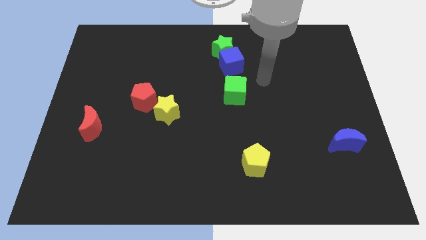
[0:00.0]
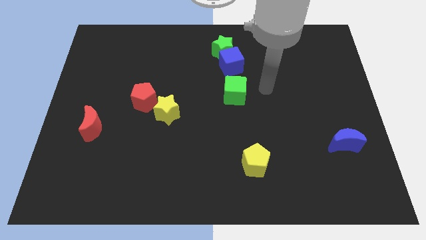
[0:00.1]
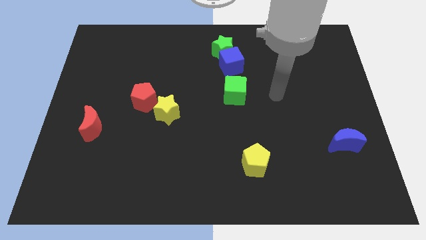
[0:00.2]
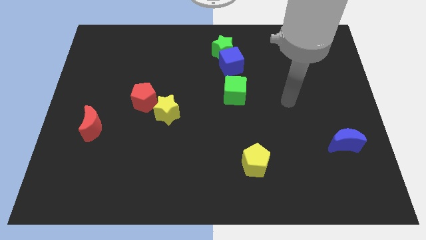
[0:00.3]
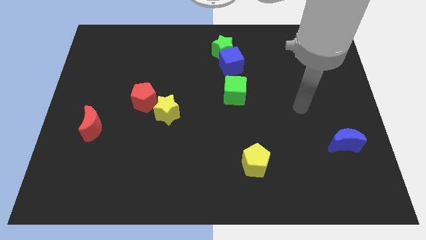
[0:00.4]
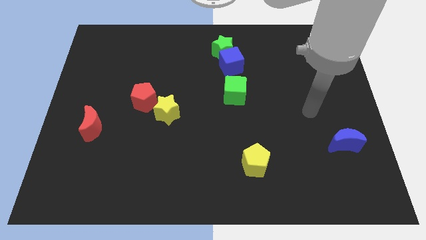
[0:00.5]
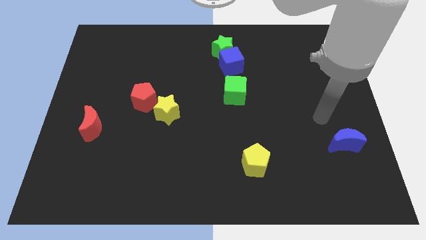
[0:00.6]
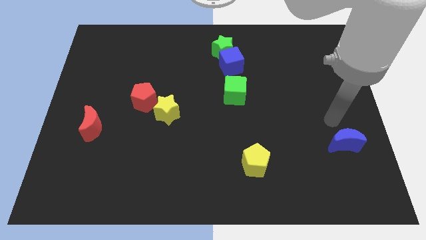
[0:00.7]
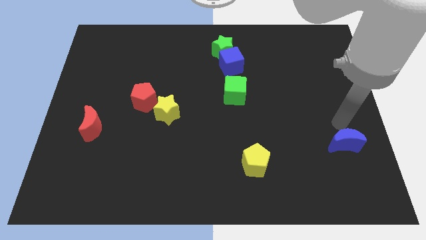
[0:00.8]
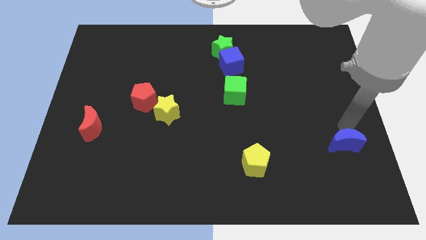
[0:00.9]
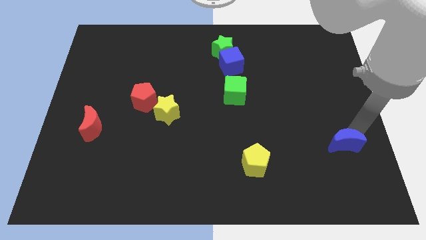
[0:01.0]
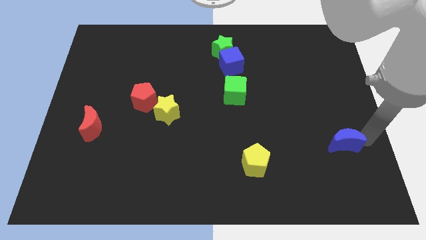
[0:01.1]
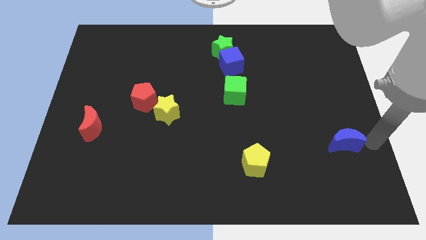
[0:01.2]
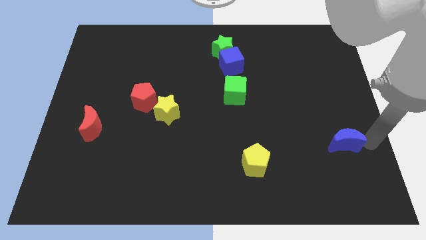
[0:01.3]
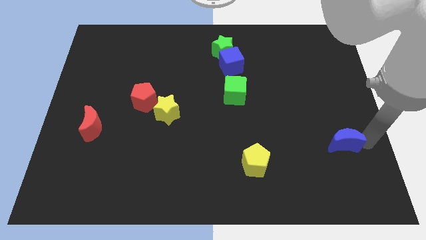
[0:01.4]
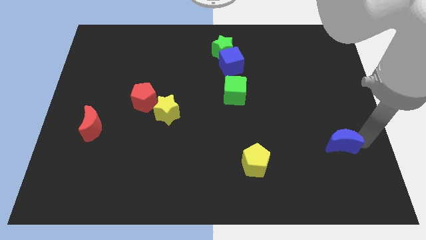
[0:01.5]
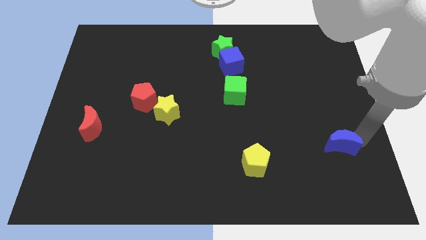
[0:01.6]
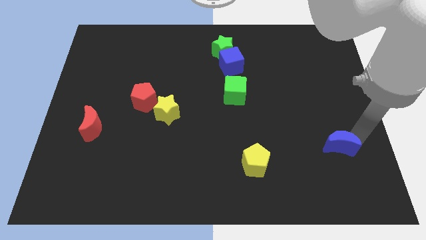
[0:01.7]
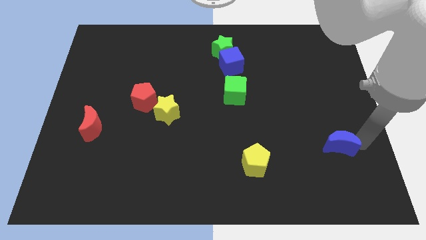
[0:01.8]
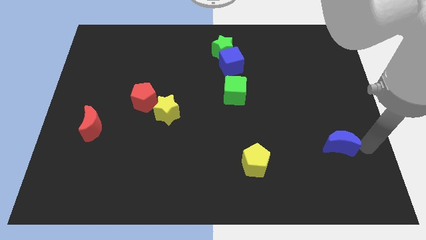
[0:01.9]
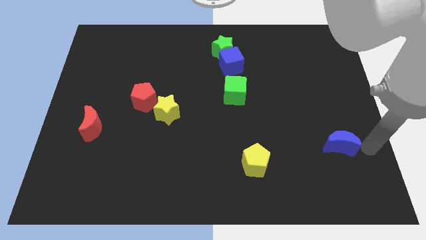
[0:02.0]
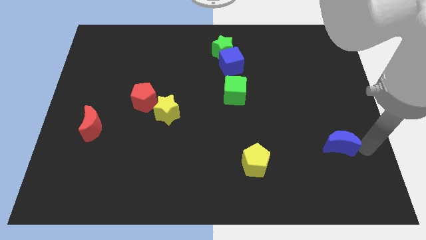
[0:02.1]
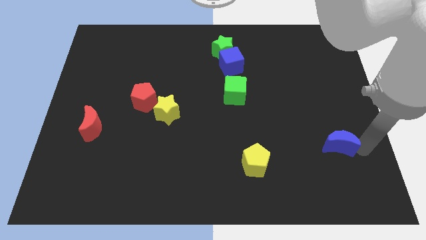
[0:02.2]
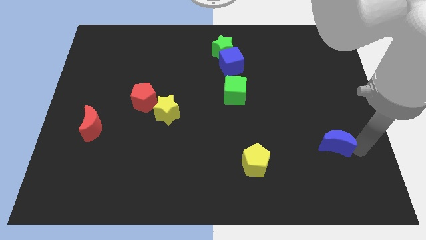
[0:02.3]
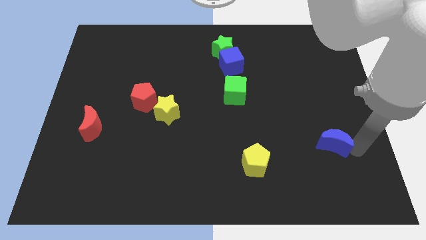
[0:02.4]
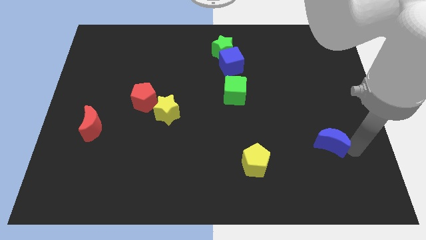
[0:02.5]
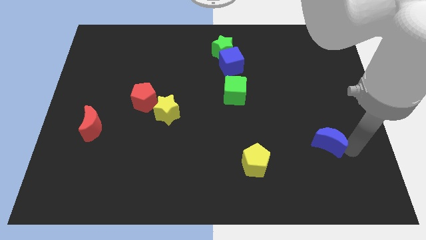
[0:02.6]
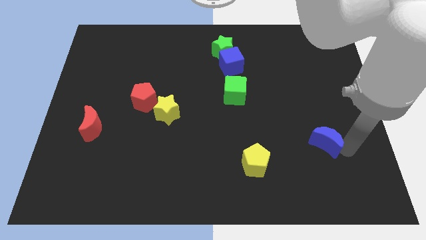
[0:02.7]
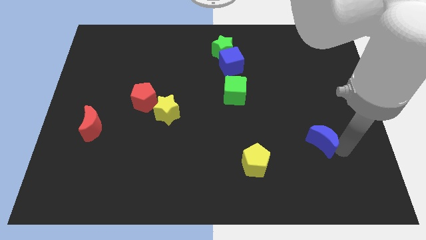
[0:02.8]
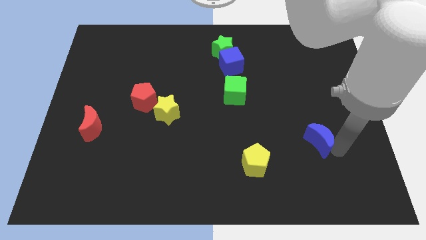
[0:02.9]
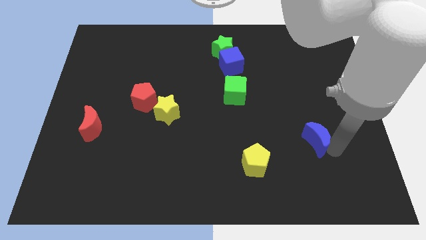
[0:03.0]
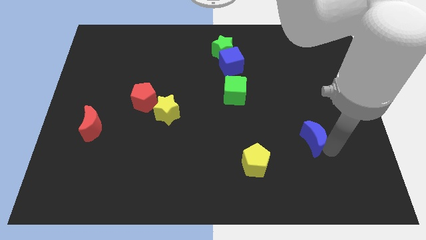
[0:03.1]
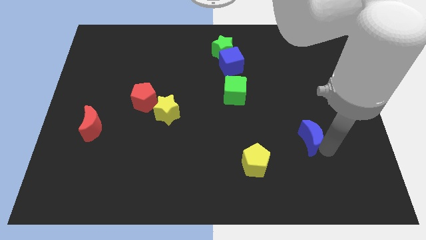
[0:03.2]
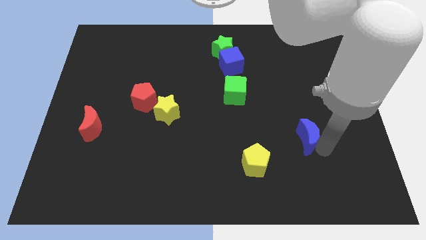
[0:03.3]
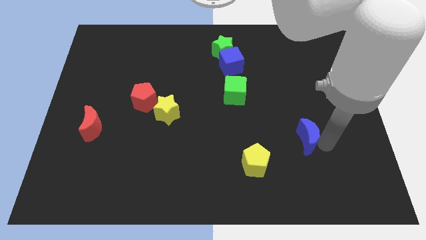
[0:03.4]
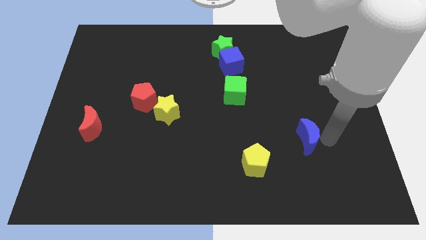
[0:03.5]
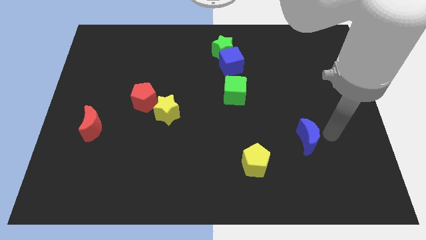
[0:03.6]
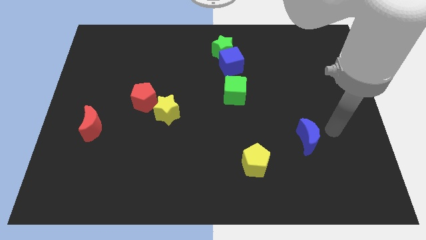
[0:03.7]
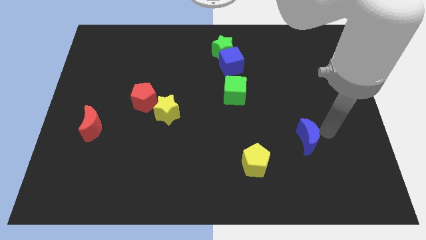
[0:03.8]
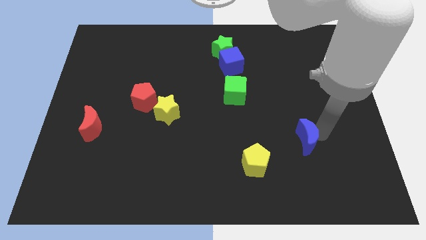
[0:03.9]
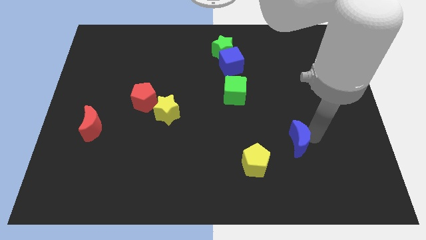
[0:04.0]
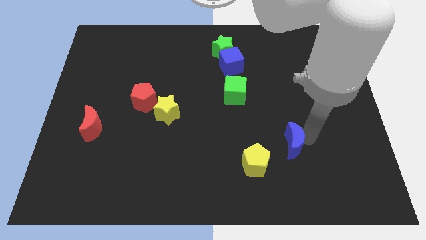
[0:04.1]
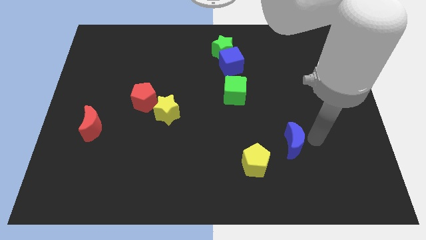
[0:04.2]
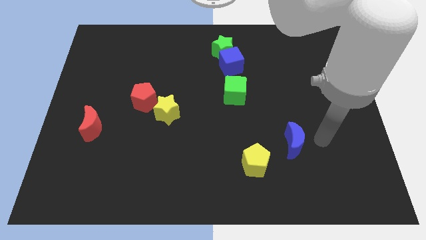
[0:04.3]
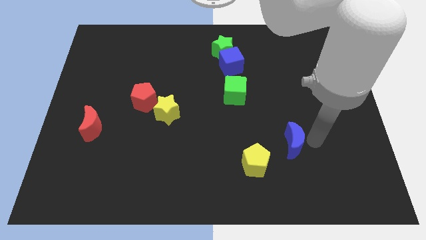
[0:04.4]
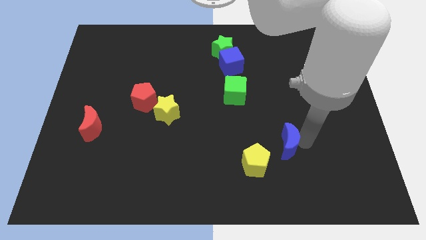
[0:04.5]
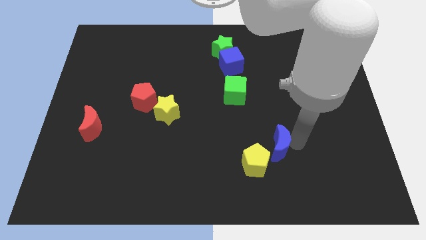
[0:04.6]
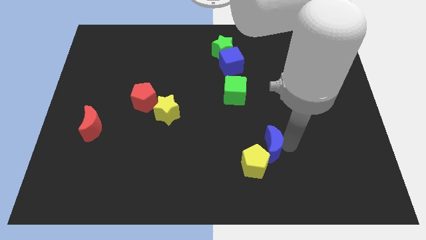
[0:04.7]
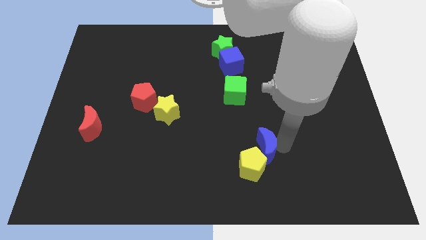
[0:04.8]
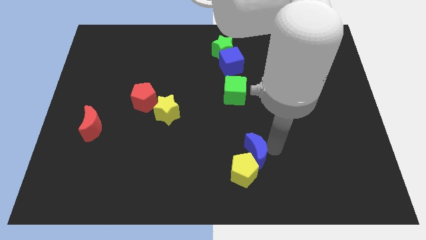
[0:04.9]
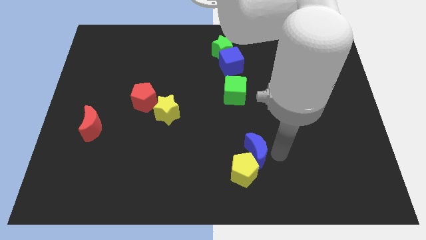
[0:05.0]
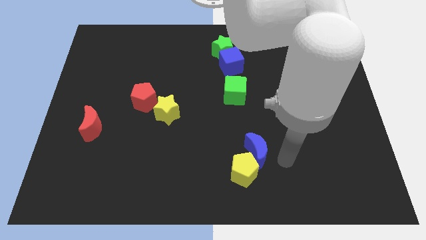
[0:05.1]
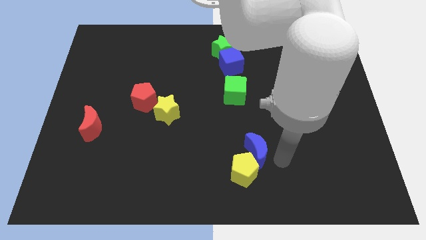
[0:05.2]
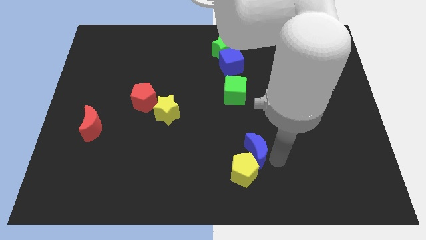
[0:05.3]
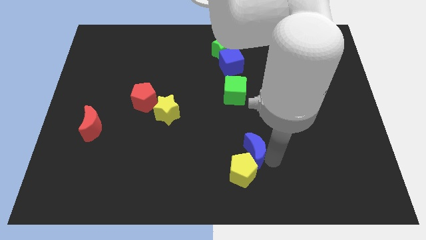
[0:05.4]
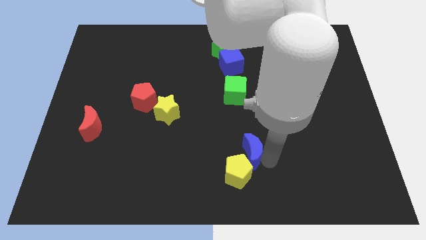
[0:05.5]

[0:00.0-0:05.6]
move the blue moon left

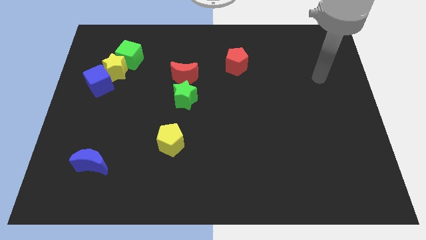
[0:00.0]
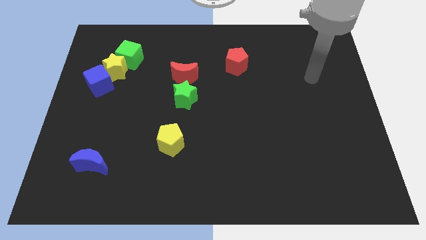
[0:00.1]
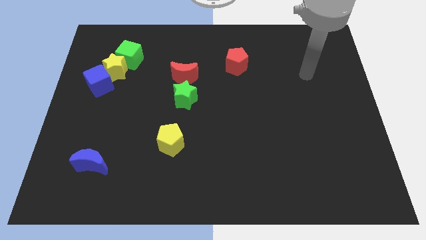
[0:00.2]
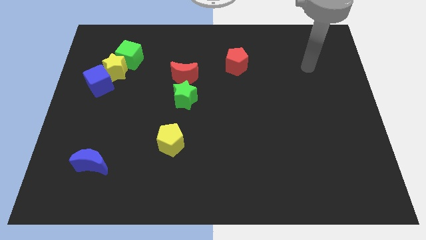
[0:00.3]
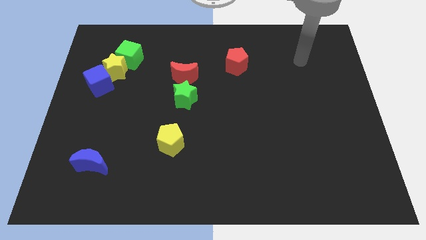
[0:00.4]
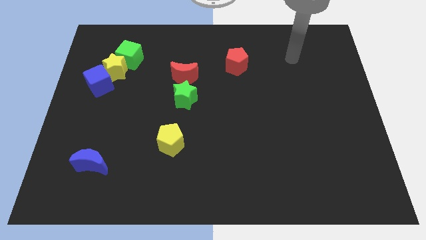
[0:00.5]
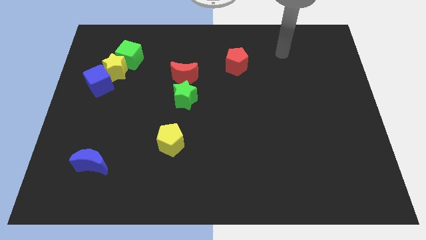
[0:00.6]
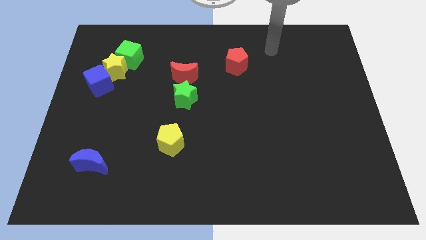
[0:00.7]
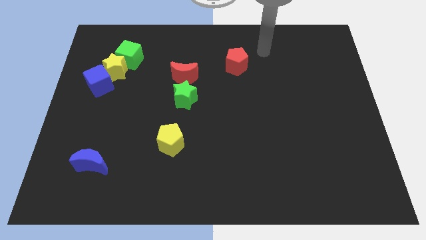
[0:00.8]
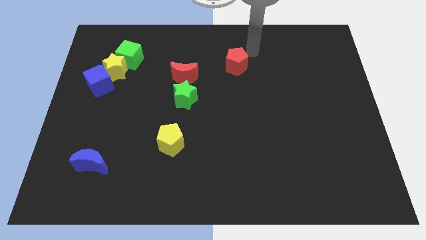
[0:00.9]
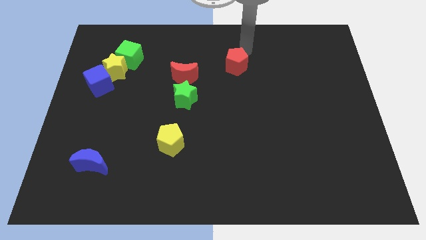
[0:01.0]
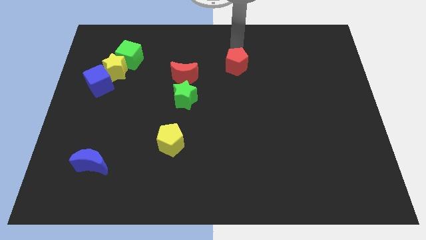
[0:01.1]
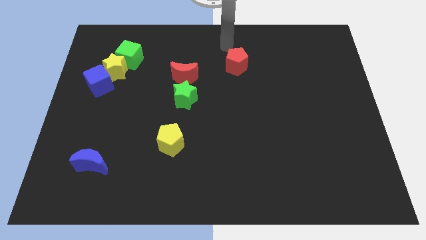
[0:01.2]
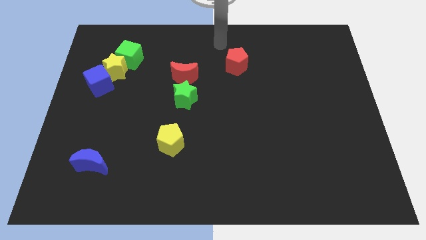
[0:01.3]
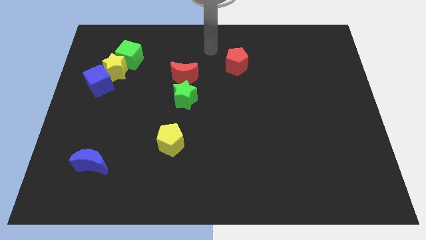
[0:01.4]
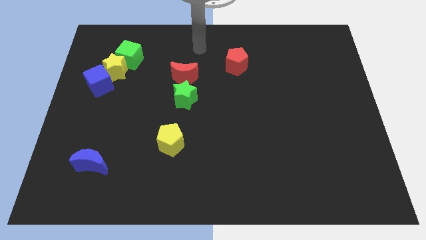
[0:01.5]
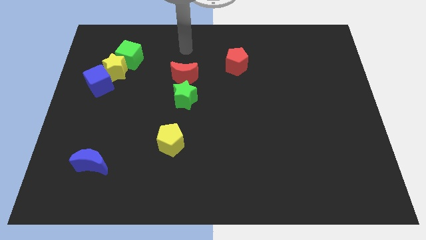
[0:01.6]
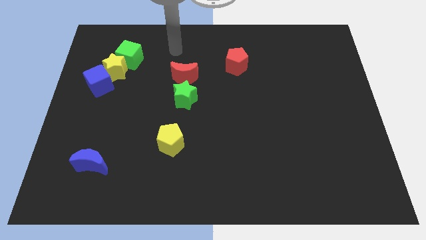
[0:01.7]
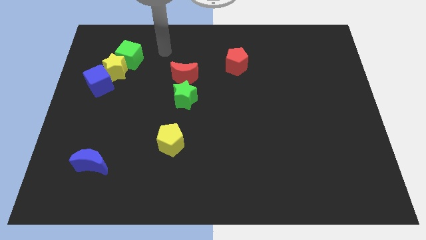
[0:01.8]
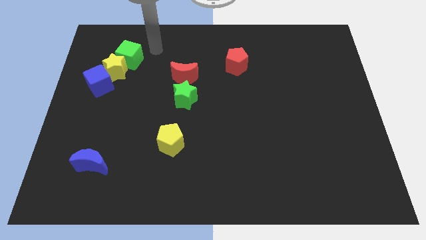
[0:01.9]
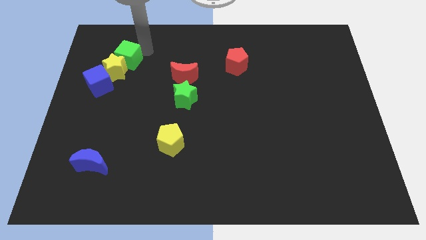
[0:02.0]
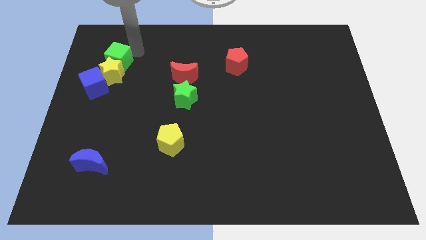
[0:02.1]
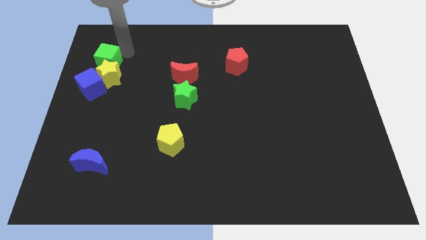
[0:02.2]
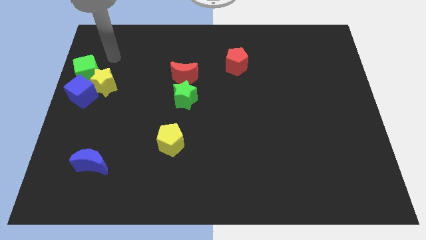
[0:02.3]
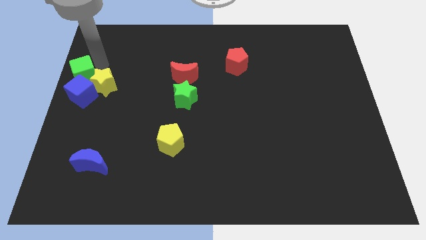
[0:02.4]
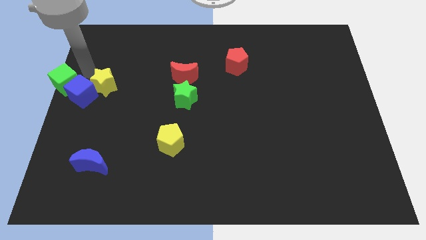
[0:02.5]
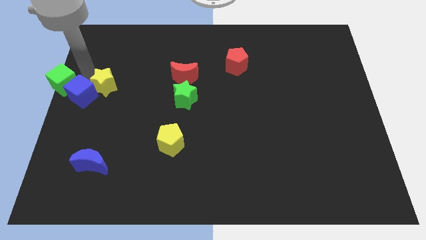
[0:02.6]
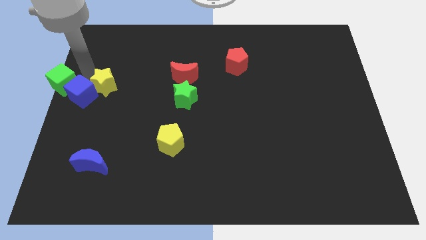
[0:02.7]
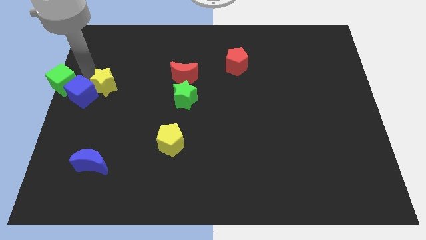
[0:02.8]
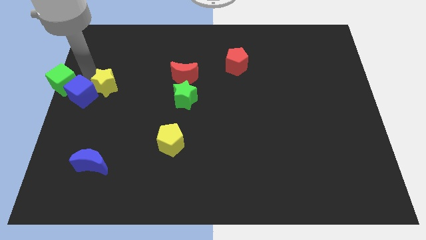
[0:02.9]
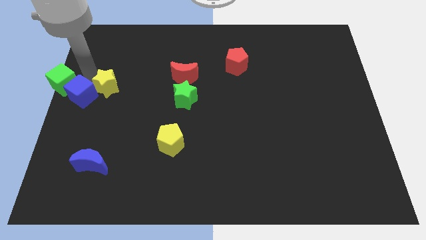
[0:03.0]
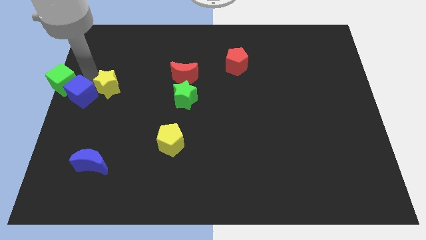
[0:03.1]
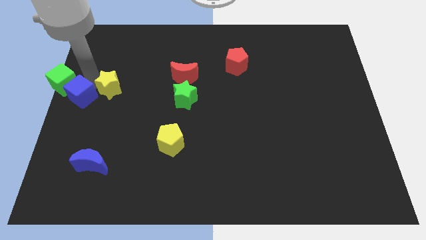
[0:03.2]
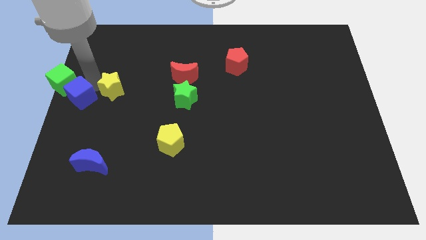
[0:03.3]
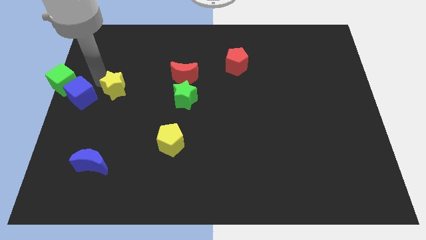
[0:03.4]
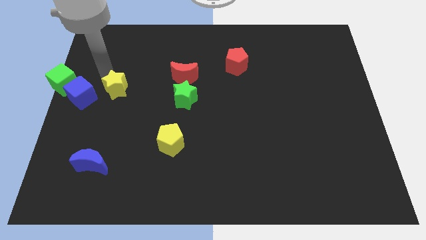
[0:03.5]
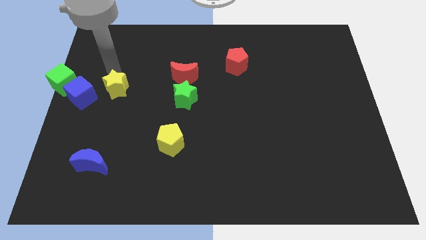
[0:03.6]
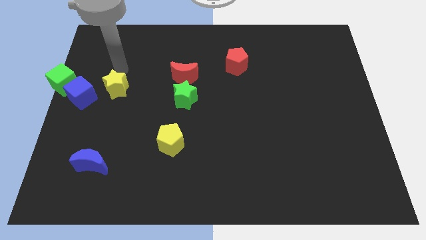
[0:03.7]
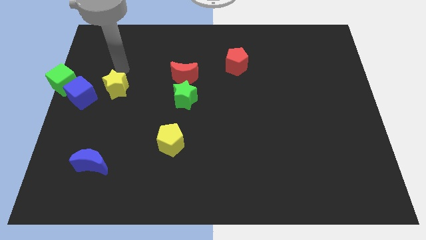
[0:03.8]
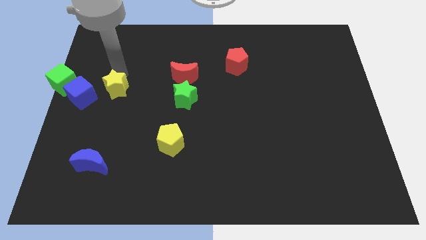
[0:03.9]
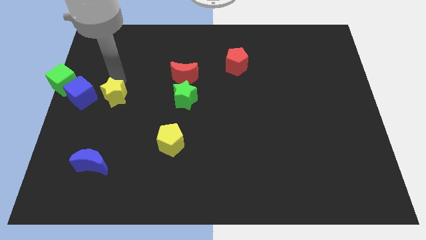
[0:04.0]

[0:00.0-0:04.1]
slightly push the yellow star downwards
